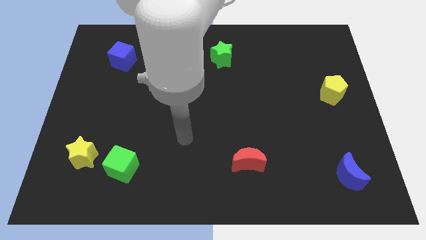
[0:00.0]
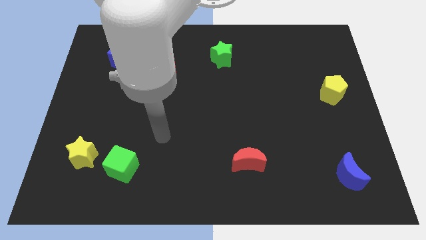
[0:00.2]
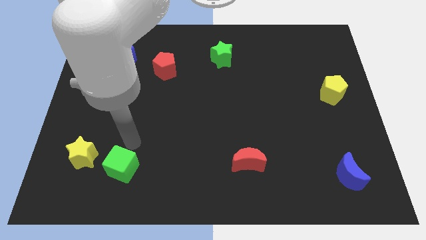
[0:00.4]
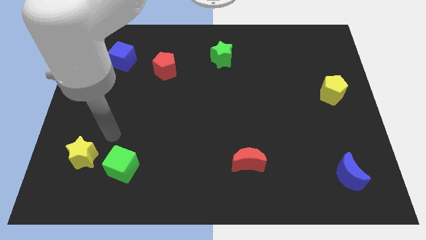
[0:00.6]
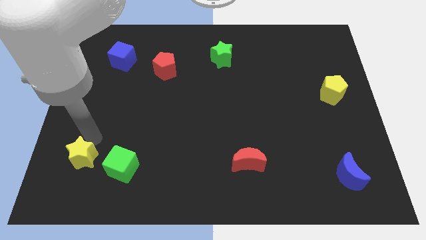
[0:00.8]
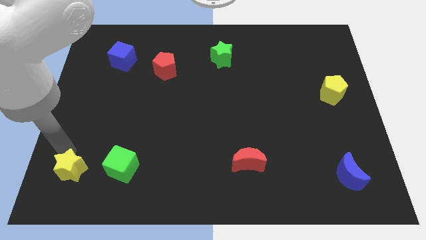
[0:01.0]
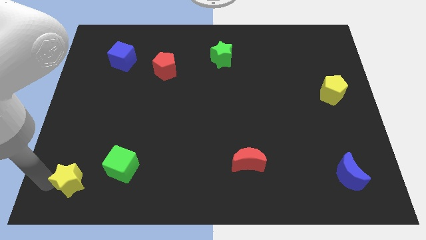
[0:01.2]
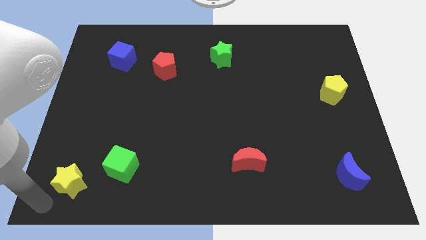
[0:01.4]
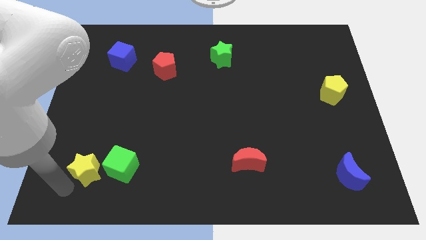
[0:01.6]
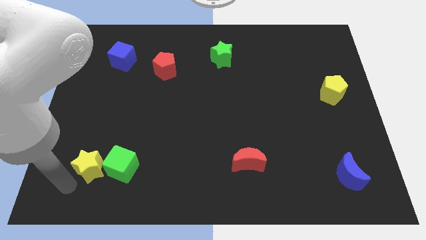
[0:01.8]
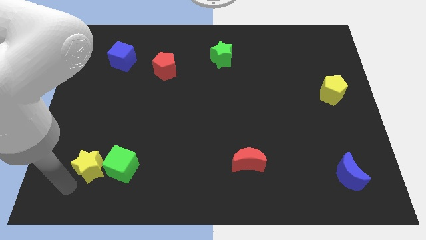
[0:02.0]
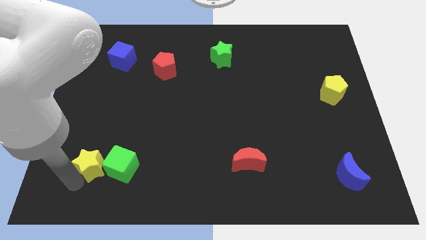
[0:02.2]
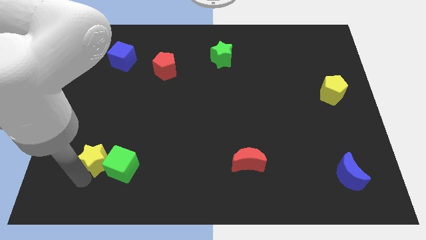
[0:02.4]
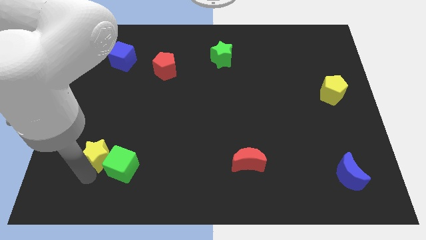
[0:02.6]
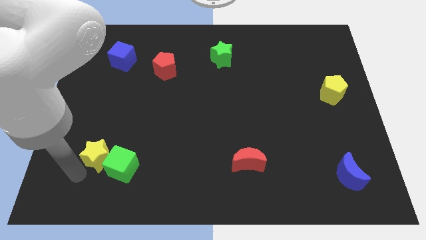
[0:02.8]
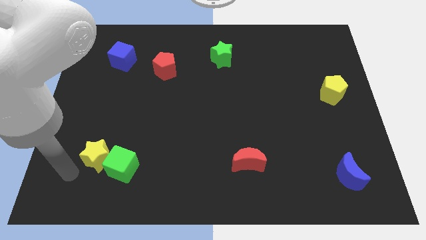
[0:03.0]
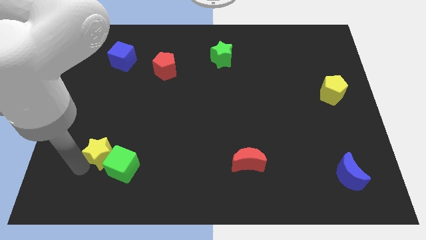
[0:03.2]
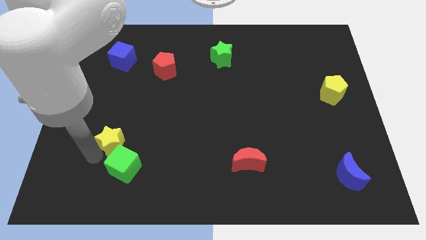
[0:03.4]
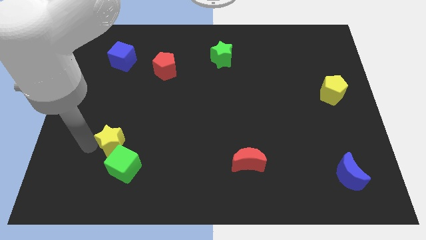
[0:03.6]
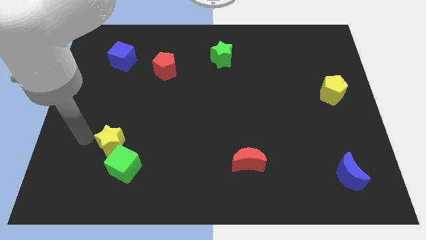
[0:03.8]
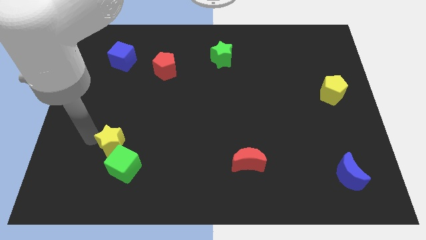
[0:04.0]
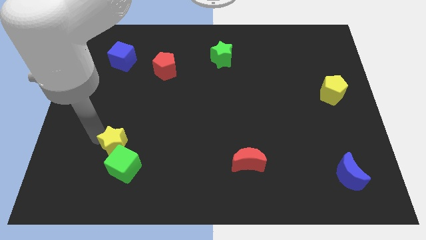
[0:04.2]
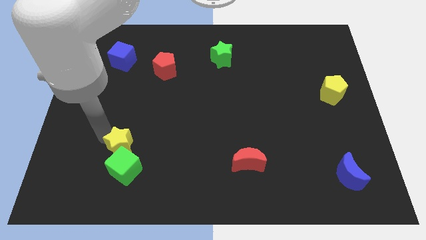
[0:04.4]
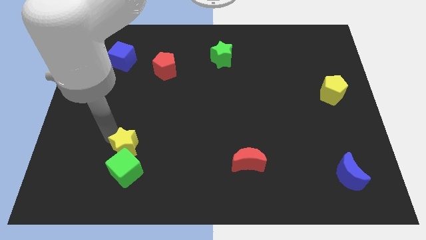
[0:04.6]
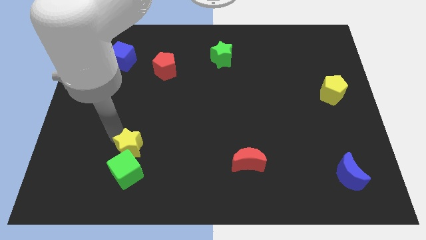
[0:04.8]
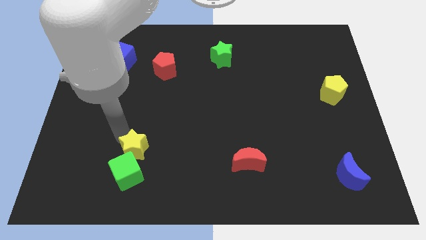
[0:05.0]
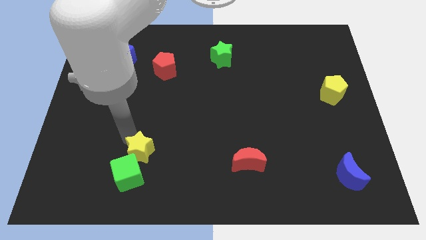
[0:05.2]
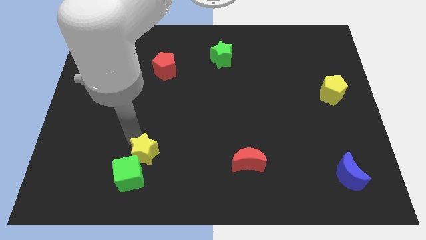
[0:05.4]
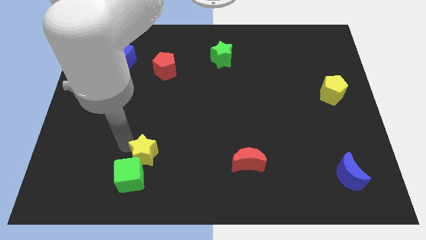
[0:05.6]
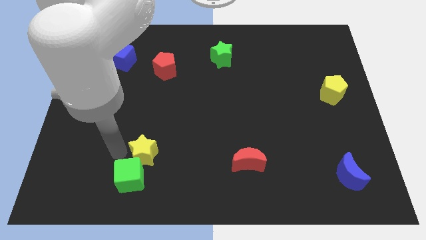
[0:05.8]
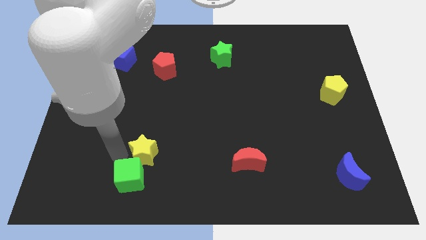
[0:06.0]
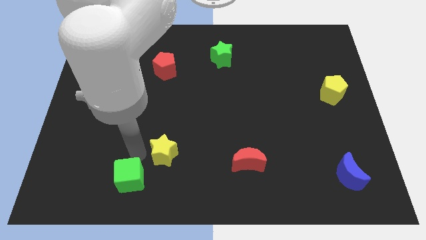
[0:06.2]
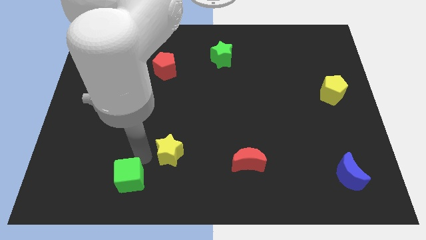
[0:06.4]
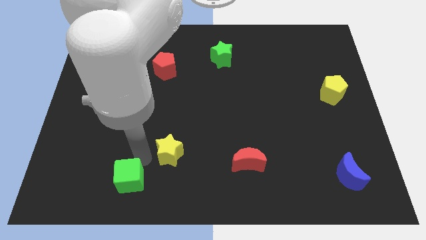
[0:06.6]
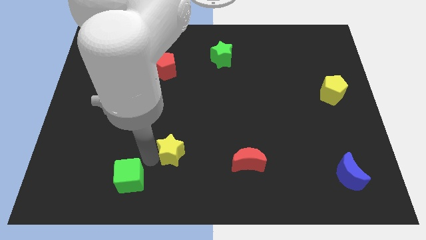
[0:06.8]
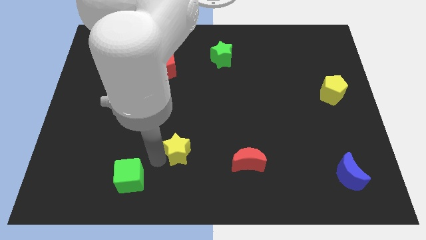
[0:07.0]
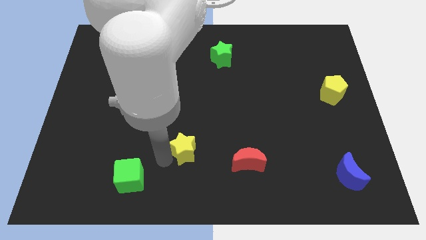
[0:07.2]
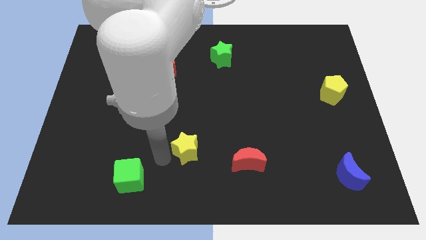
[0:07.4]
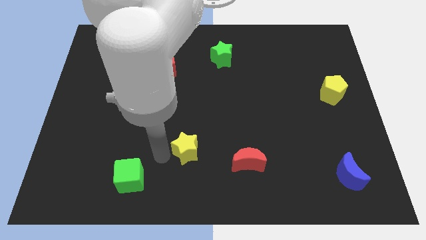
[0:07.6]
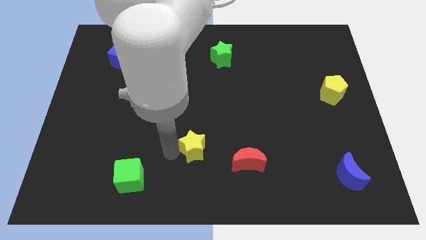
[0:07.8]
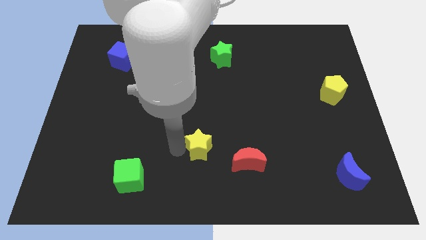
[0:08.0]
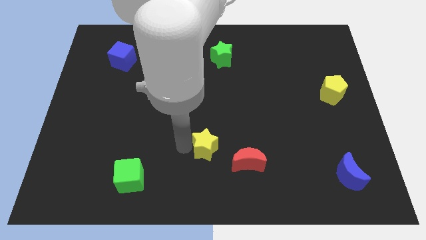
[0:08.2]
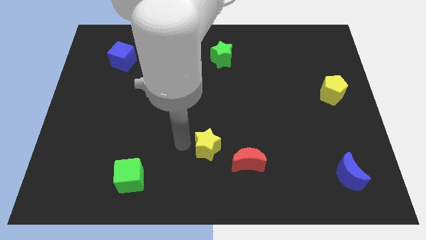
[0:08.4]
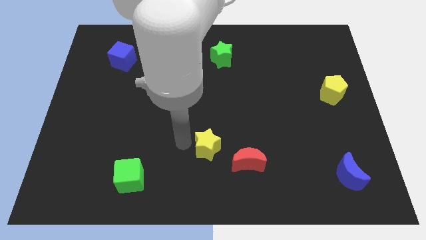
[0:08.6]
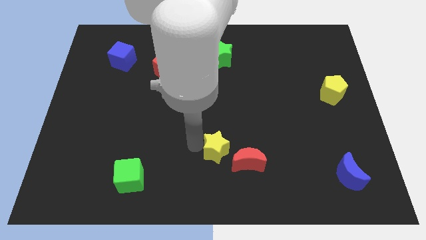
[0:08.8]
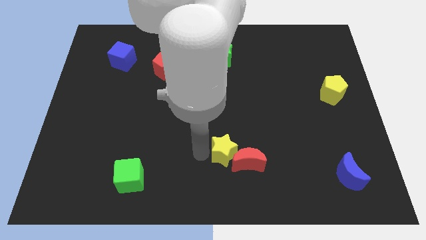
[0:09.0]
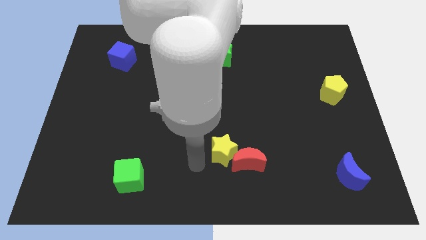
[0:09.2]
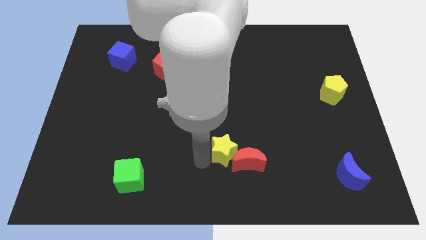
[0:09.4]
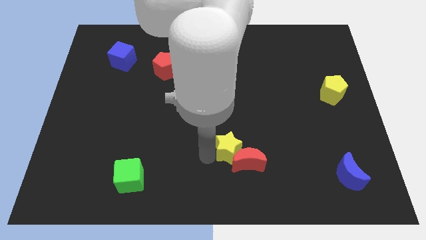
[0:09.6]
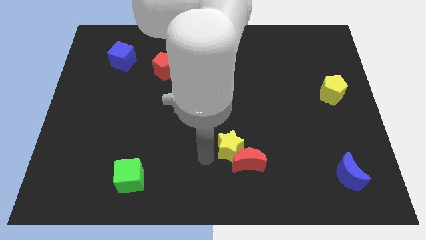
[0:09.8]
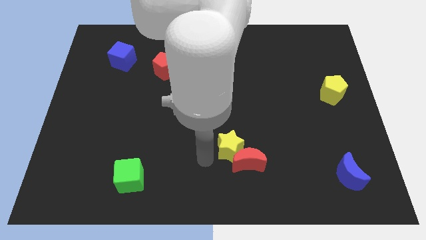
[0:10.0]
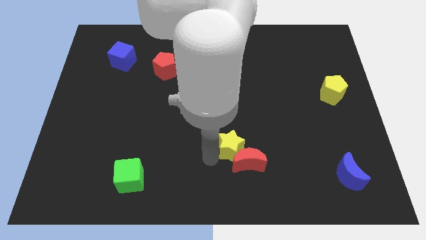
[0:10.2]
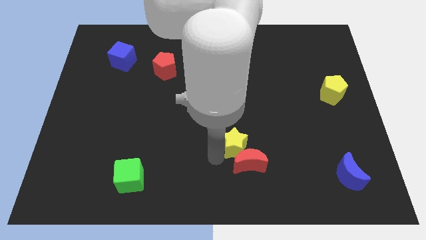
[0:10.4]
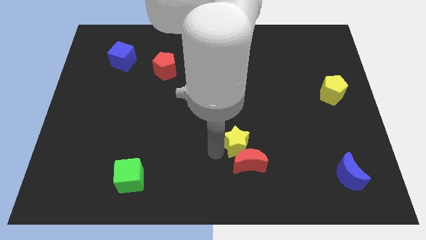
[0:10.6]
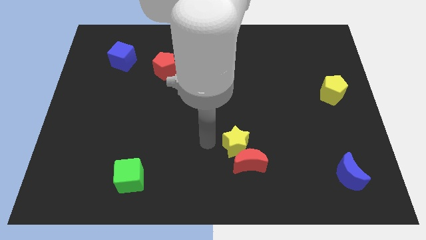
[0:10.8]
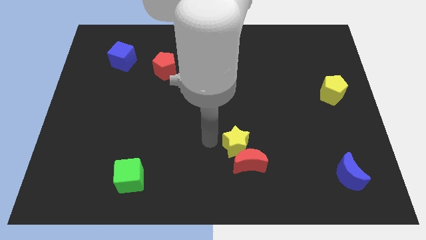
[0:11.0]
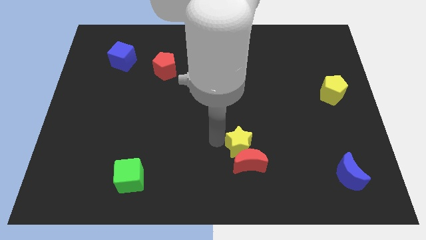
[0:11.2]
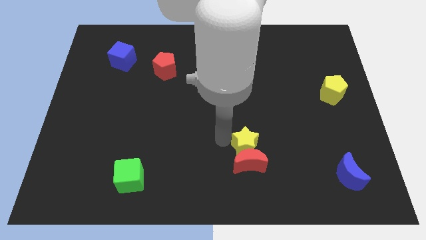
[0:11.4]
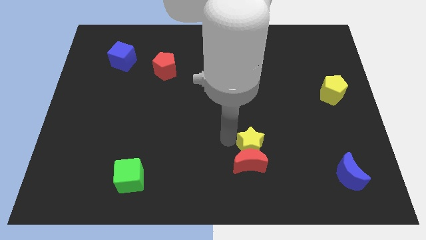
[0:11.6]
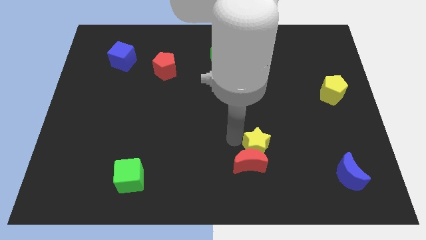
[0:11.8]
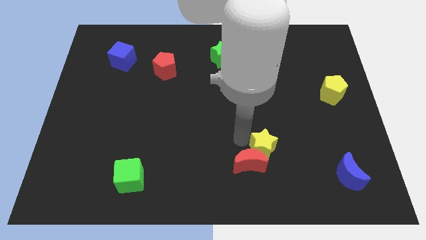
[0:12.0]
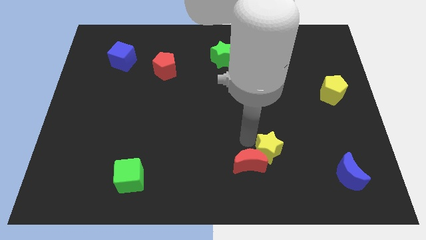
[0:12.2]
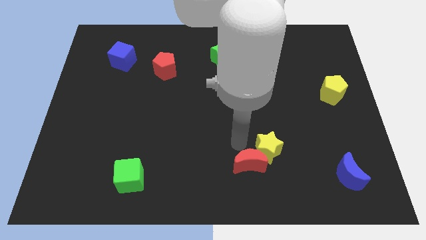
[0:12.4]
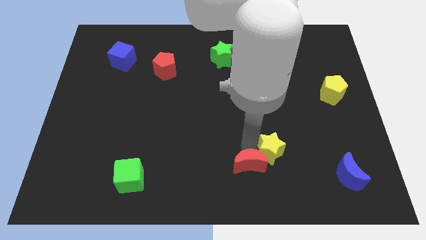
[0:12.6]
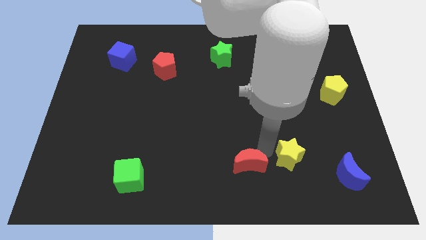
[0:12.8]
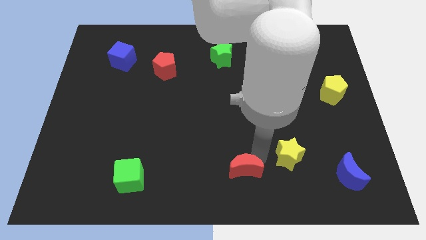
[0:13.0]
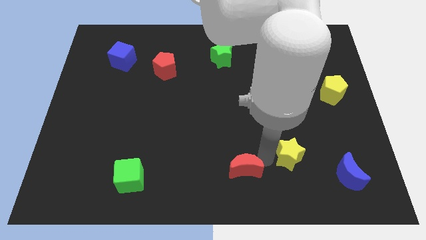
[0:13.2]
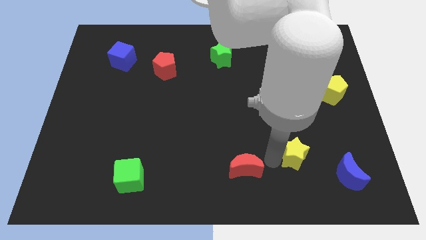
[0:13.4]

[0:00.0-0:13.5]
push the yellow star to the top left side of the blue moon

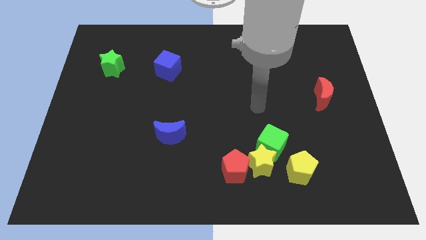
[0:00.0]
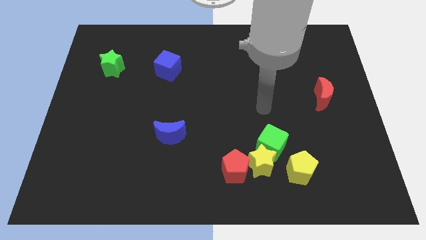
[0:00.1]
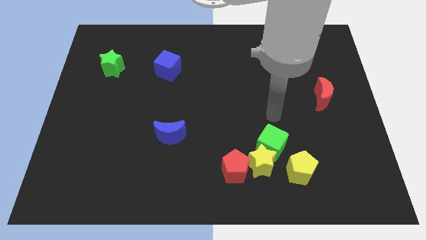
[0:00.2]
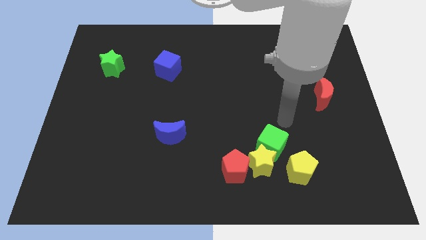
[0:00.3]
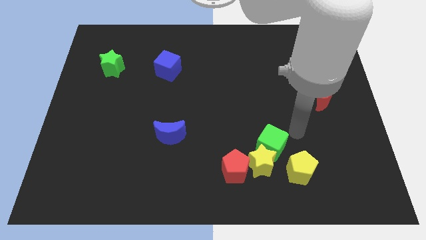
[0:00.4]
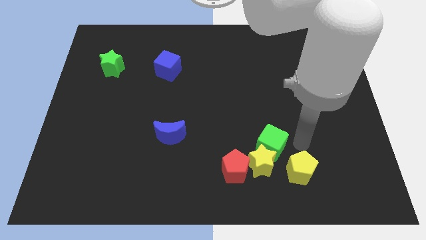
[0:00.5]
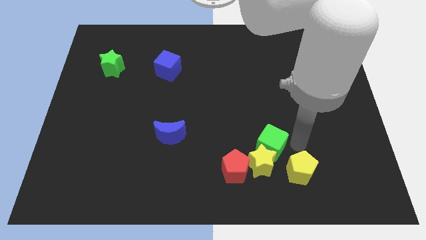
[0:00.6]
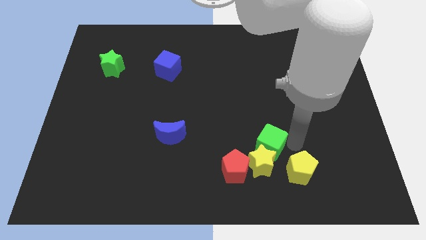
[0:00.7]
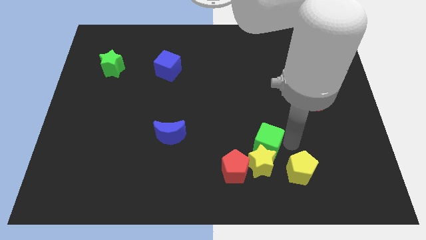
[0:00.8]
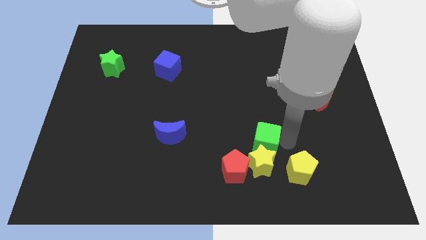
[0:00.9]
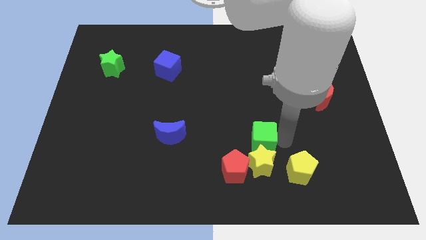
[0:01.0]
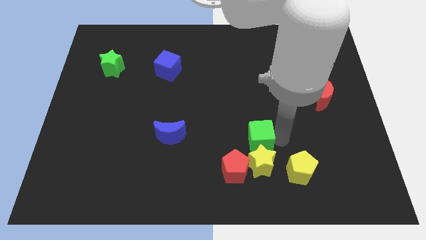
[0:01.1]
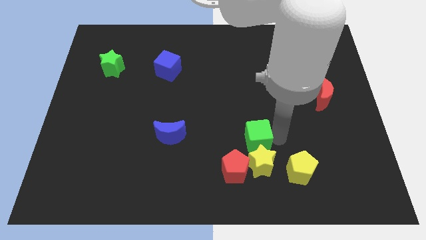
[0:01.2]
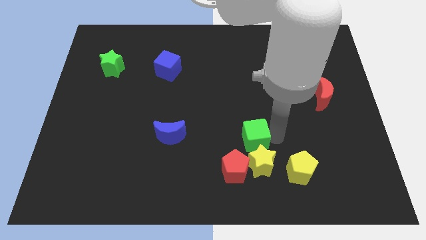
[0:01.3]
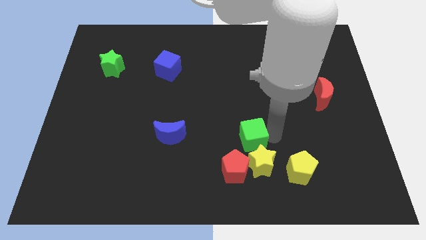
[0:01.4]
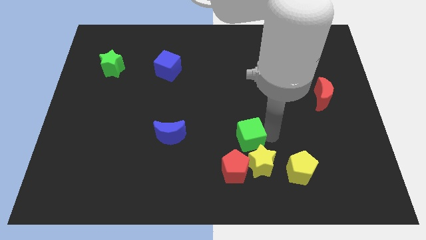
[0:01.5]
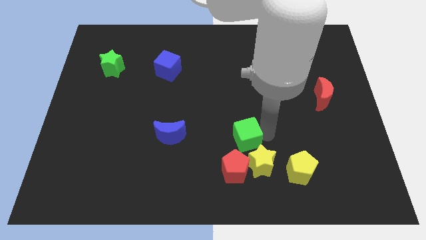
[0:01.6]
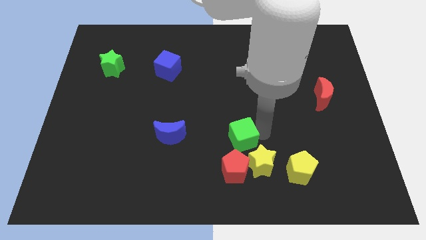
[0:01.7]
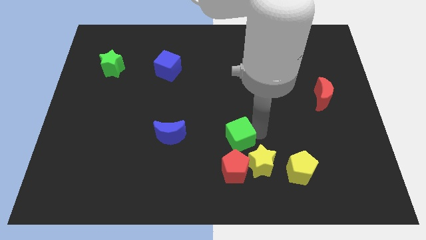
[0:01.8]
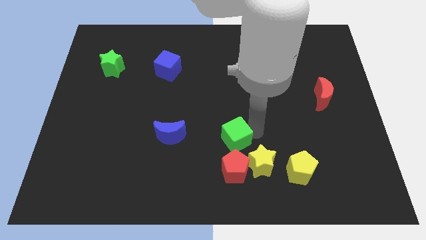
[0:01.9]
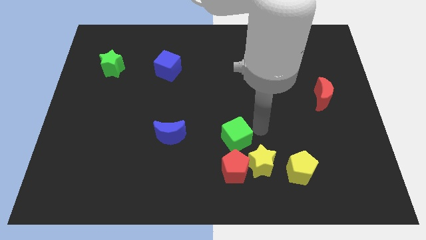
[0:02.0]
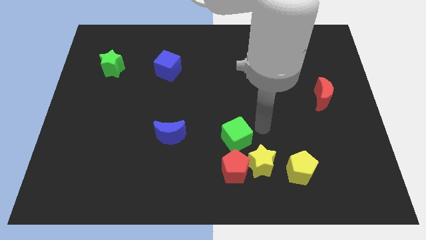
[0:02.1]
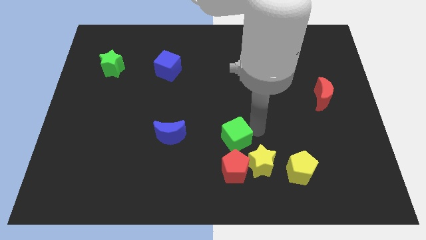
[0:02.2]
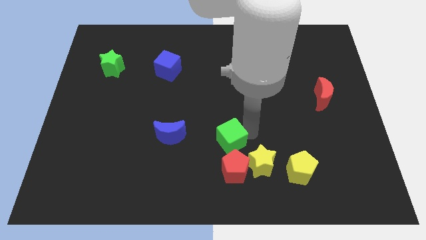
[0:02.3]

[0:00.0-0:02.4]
put the green cube diagonally up and to the left of the red pentagon
